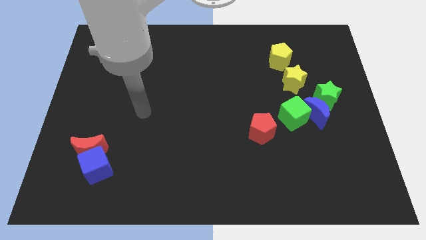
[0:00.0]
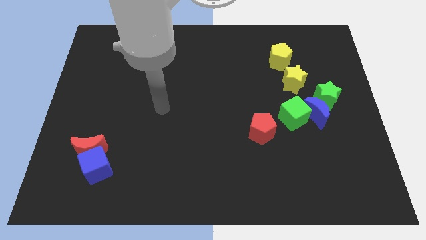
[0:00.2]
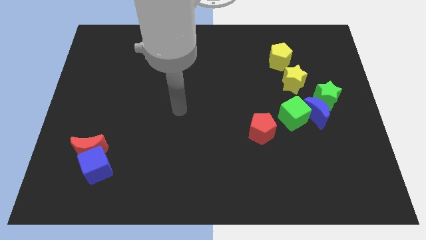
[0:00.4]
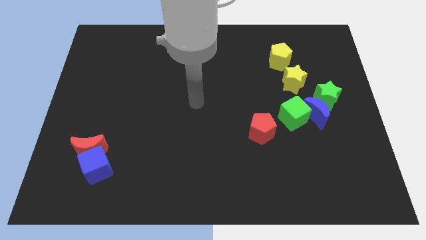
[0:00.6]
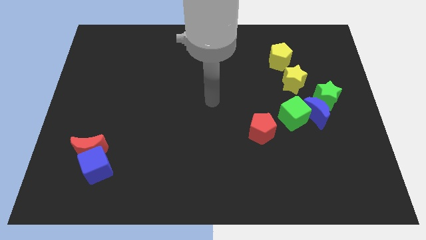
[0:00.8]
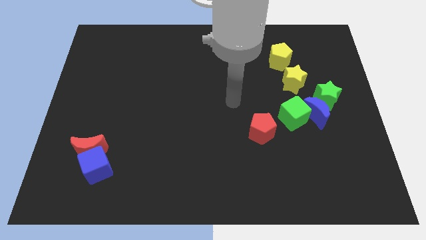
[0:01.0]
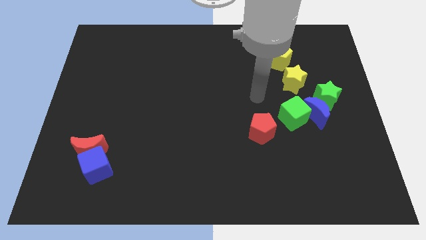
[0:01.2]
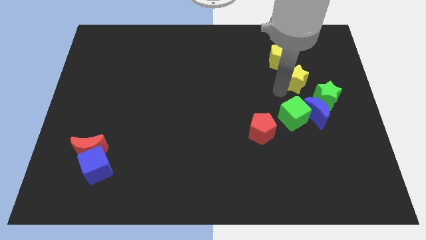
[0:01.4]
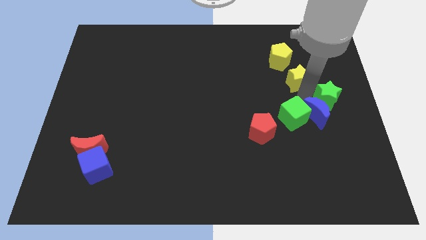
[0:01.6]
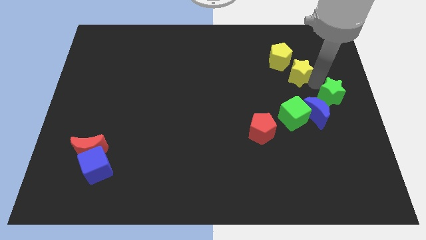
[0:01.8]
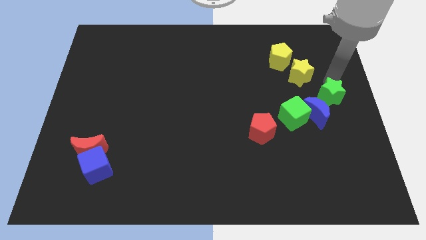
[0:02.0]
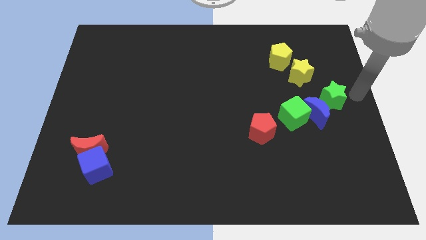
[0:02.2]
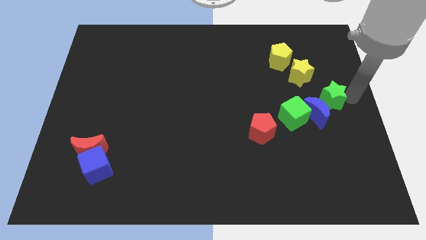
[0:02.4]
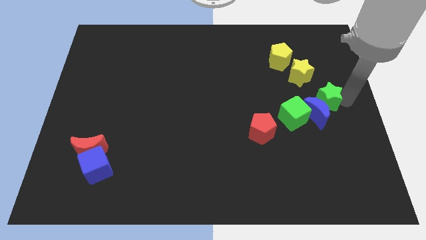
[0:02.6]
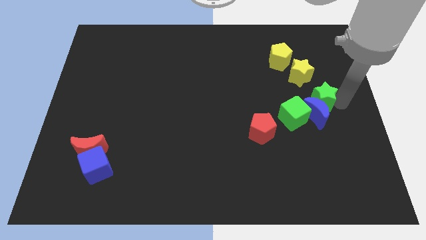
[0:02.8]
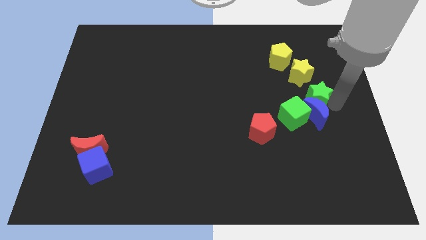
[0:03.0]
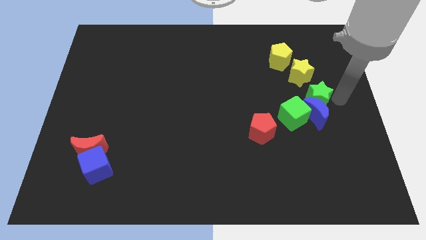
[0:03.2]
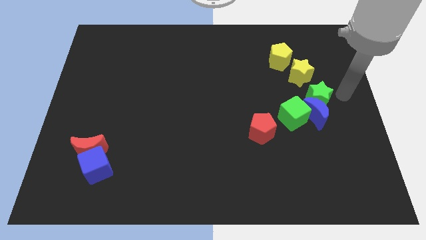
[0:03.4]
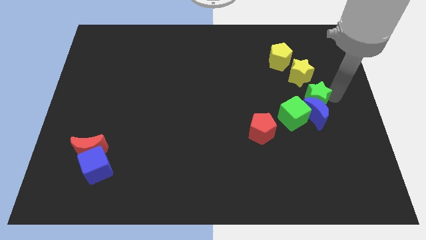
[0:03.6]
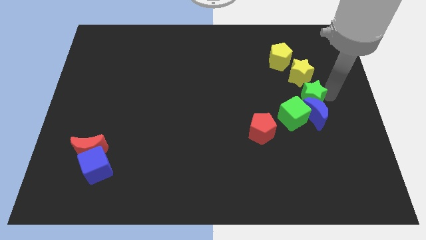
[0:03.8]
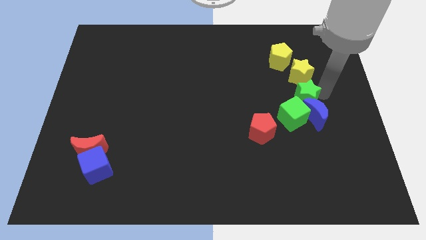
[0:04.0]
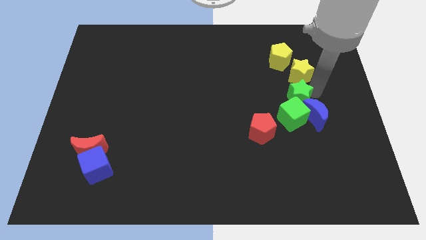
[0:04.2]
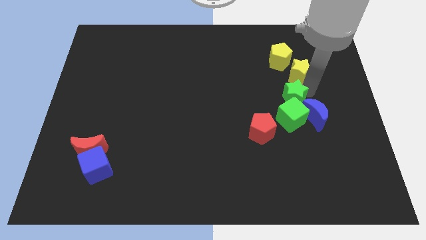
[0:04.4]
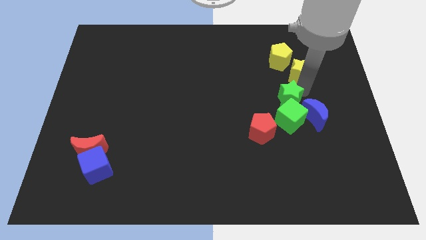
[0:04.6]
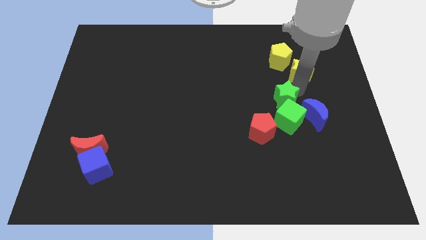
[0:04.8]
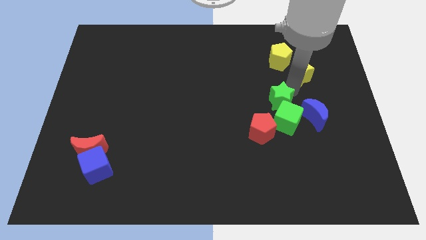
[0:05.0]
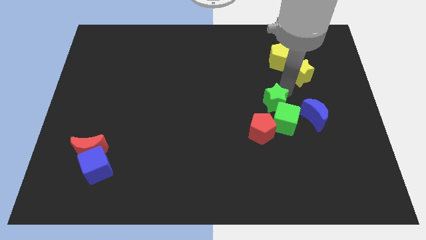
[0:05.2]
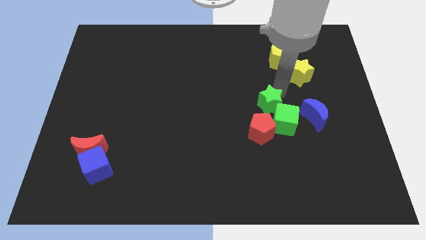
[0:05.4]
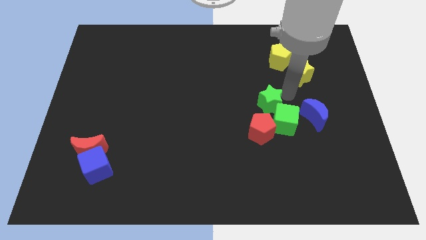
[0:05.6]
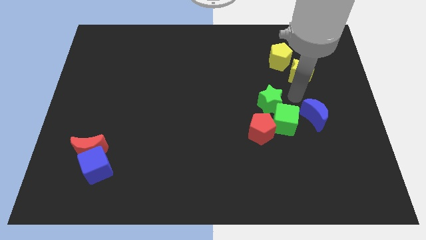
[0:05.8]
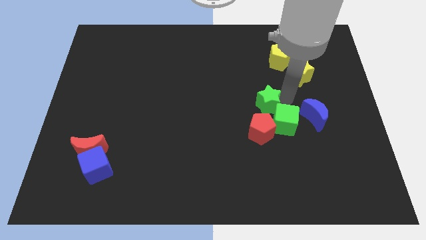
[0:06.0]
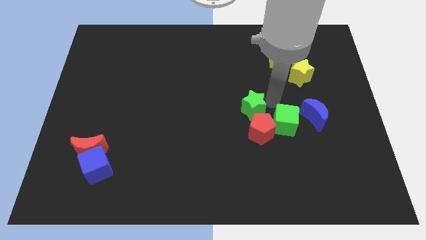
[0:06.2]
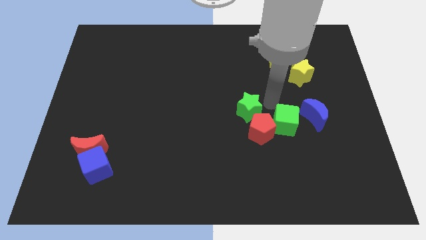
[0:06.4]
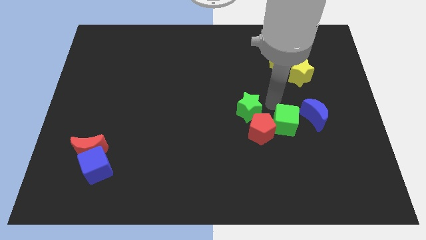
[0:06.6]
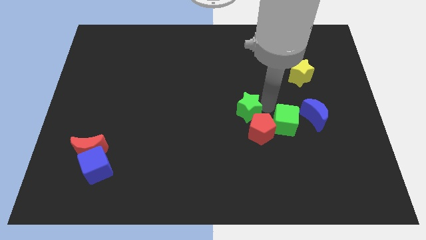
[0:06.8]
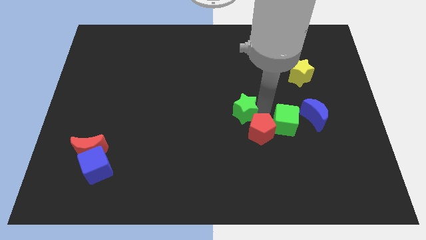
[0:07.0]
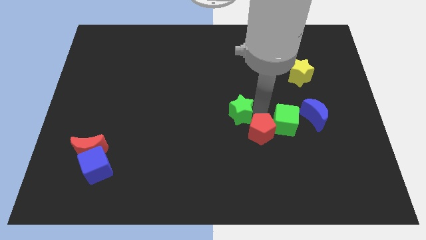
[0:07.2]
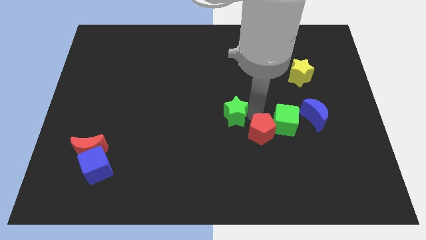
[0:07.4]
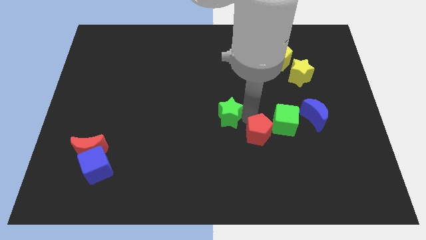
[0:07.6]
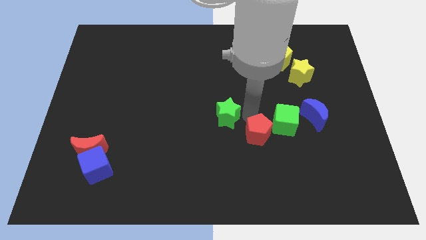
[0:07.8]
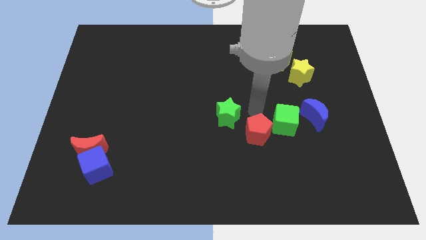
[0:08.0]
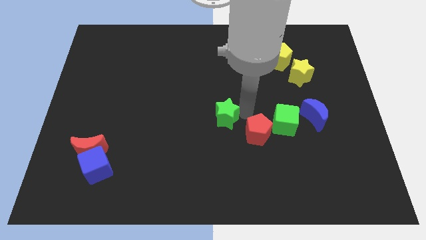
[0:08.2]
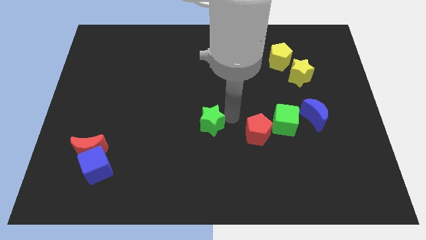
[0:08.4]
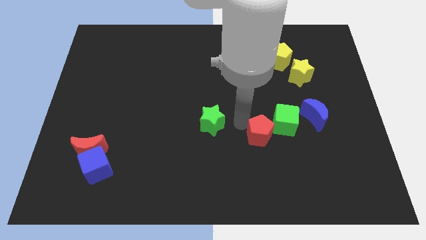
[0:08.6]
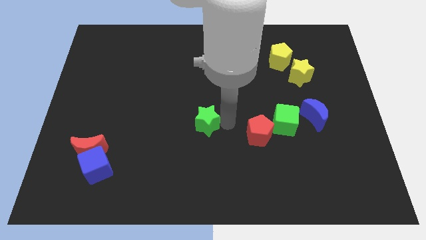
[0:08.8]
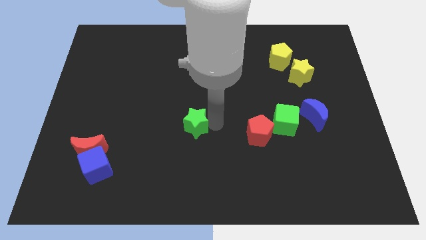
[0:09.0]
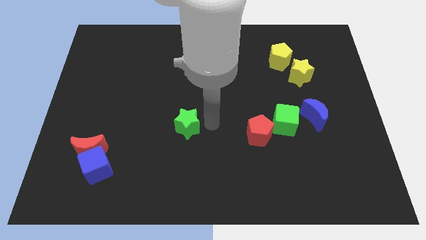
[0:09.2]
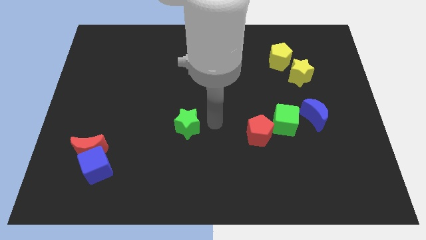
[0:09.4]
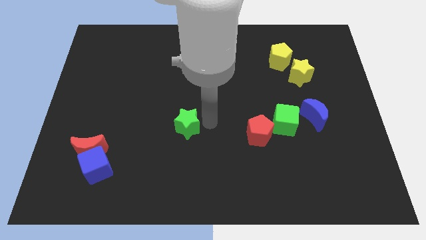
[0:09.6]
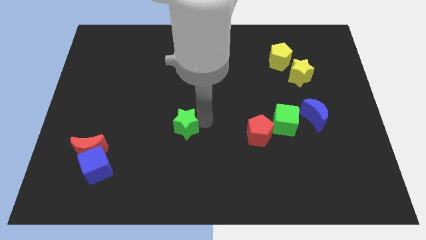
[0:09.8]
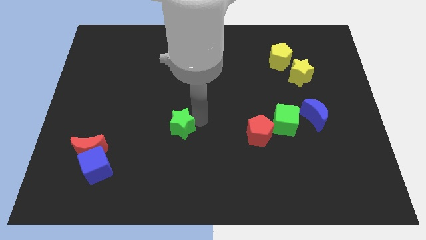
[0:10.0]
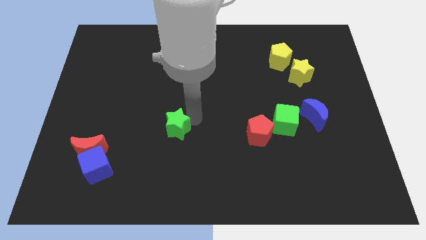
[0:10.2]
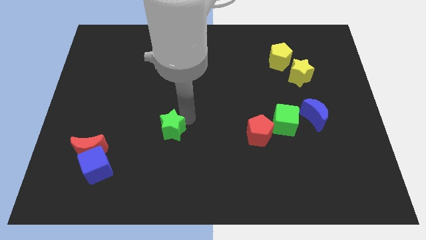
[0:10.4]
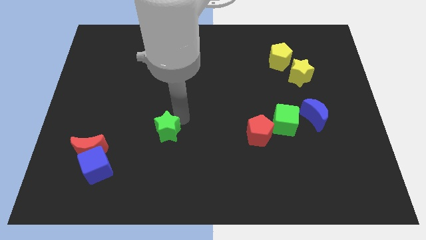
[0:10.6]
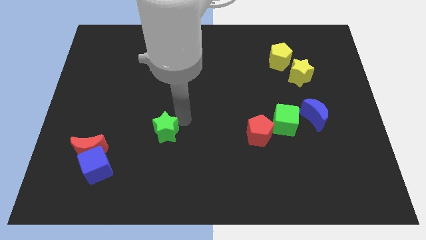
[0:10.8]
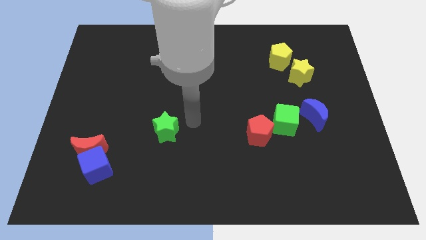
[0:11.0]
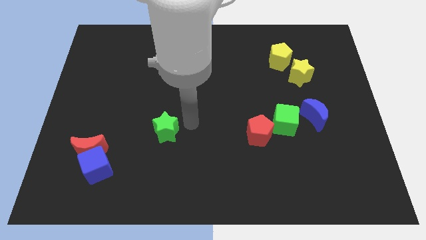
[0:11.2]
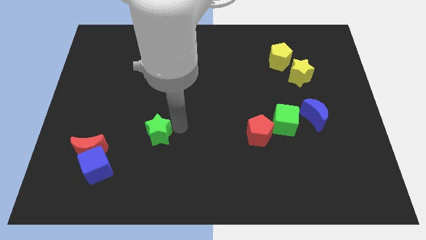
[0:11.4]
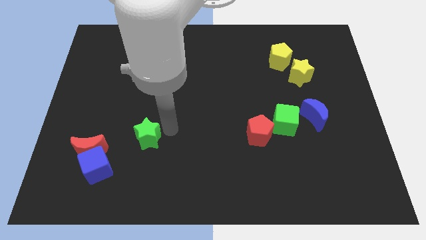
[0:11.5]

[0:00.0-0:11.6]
push the green star to the top right of the blue cube

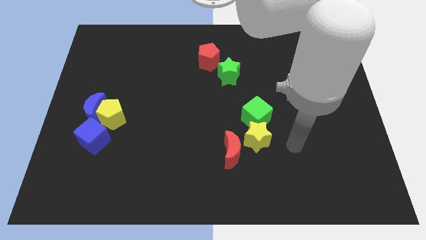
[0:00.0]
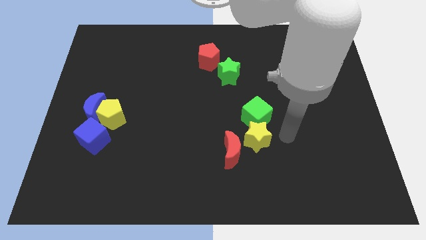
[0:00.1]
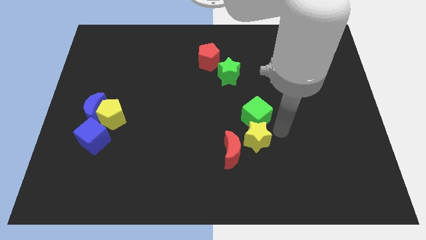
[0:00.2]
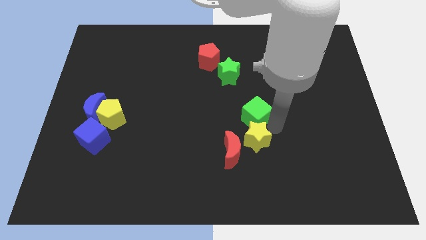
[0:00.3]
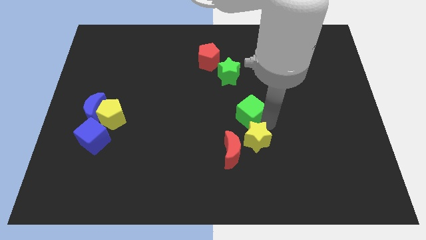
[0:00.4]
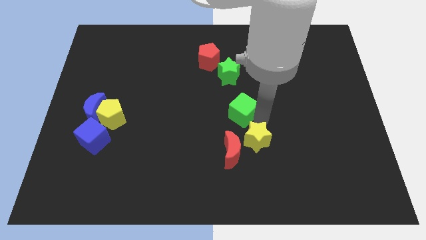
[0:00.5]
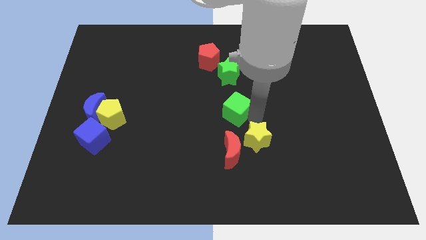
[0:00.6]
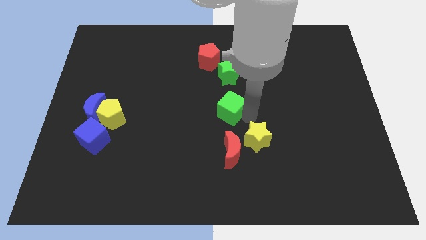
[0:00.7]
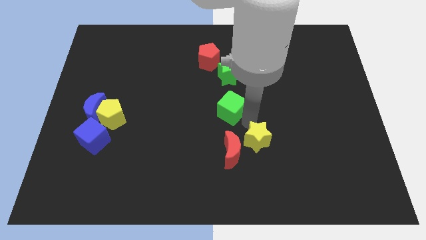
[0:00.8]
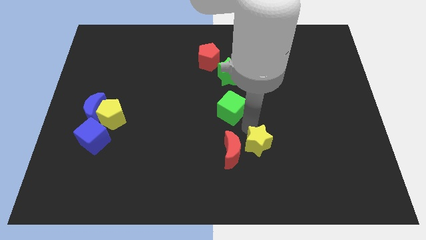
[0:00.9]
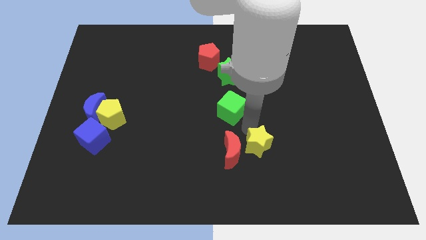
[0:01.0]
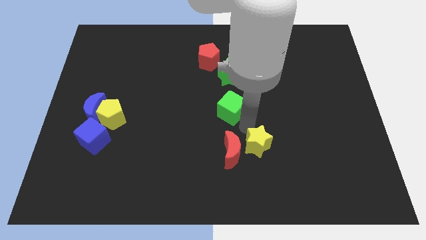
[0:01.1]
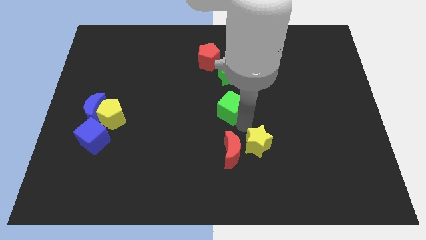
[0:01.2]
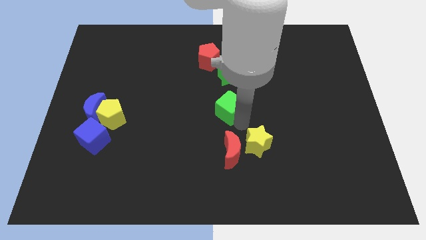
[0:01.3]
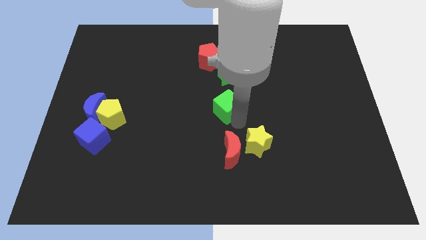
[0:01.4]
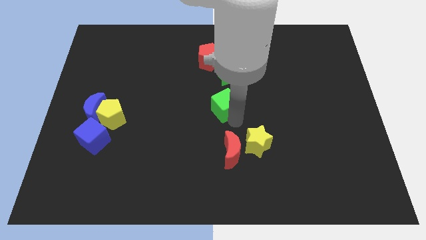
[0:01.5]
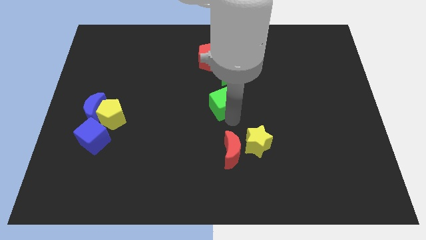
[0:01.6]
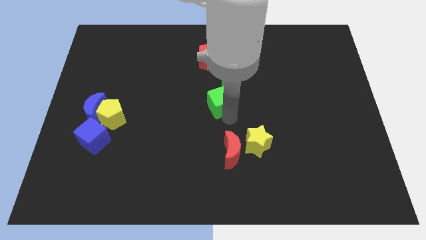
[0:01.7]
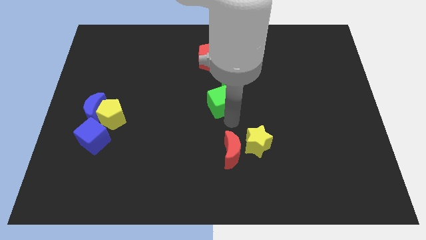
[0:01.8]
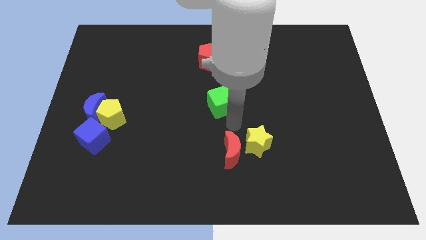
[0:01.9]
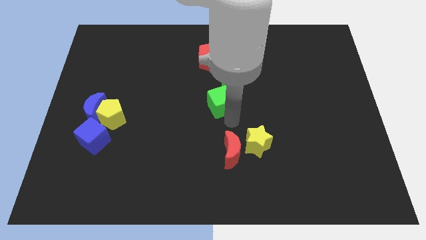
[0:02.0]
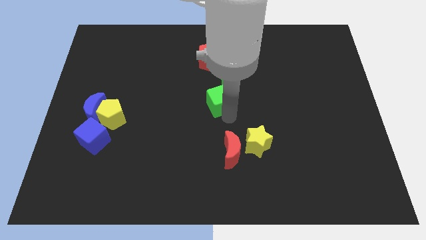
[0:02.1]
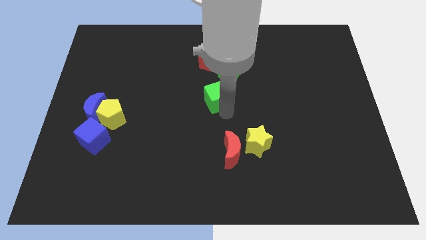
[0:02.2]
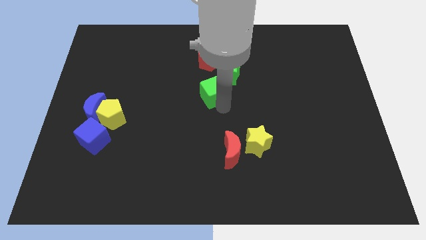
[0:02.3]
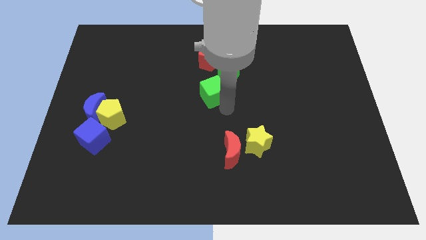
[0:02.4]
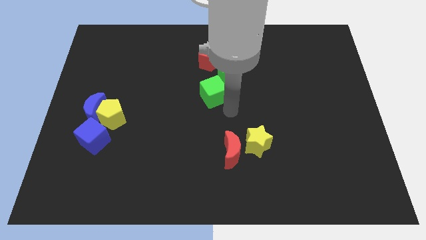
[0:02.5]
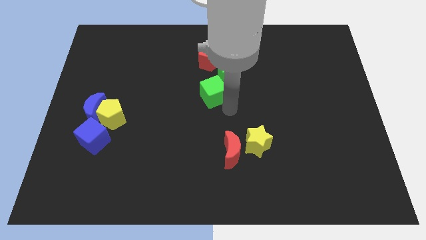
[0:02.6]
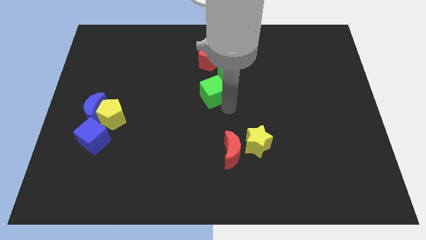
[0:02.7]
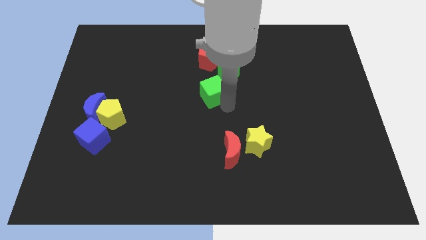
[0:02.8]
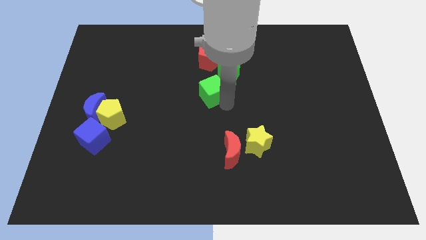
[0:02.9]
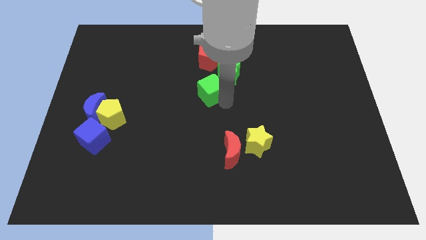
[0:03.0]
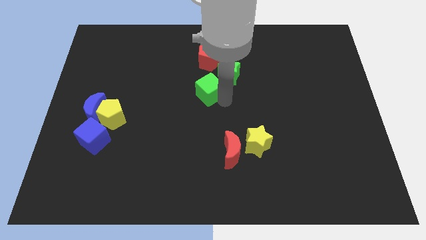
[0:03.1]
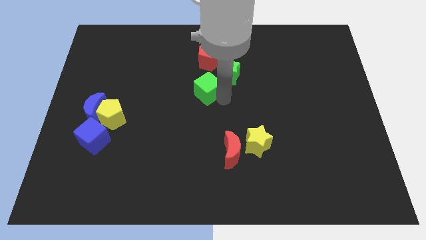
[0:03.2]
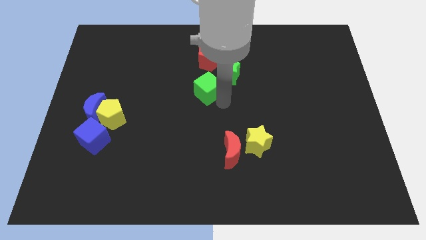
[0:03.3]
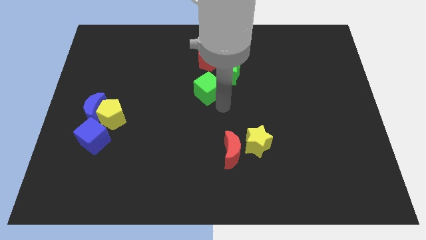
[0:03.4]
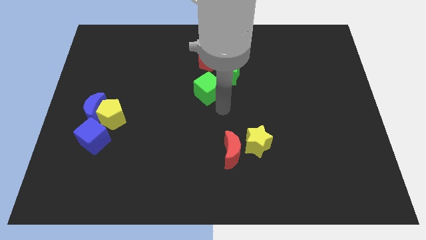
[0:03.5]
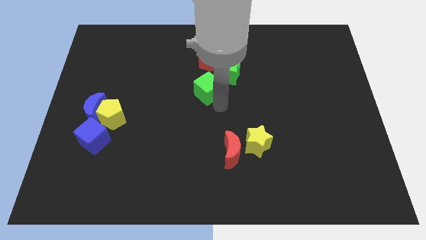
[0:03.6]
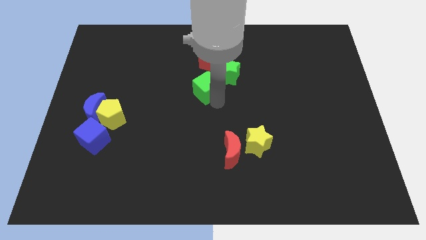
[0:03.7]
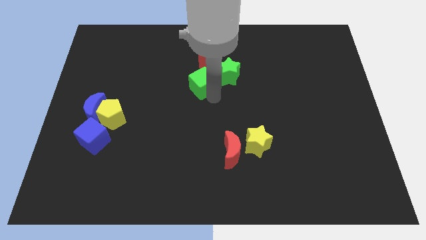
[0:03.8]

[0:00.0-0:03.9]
move the green cube to the left of the green star
